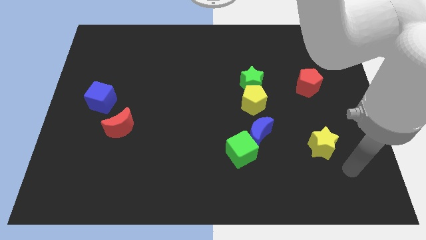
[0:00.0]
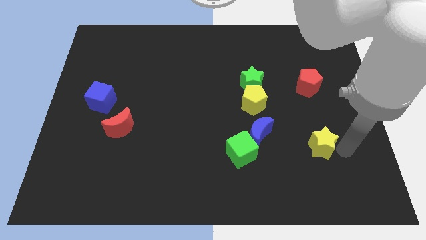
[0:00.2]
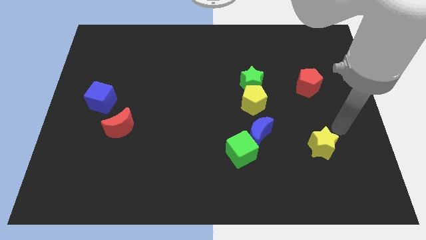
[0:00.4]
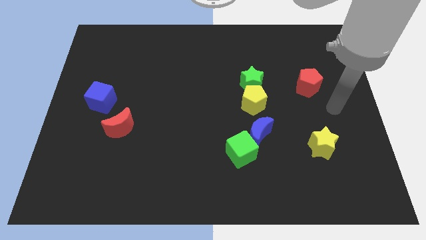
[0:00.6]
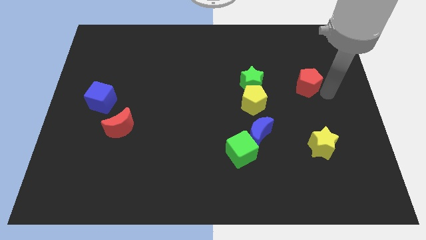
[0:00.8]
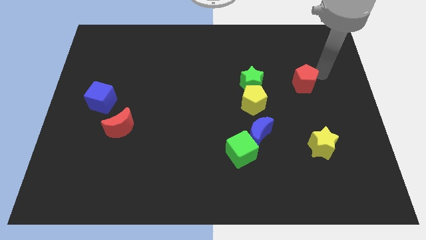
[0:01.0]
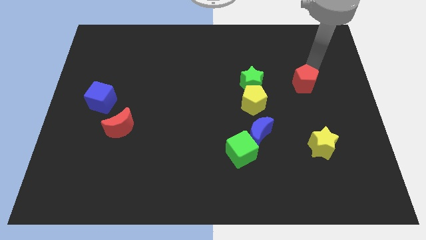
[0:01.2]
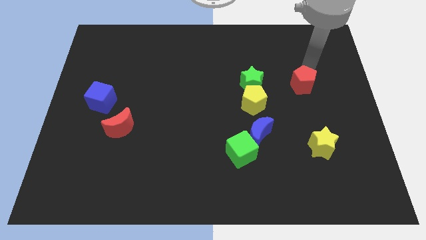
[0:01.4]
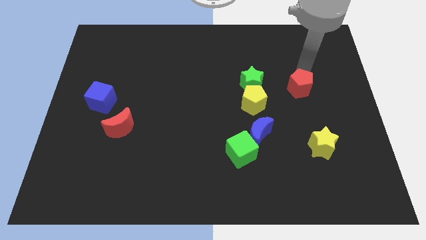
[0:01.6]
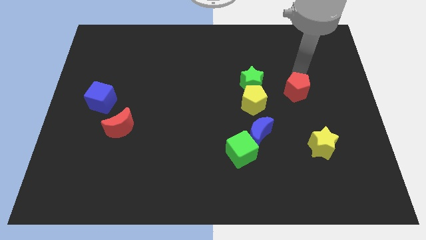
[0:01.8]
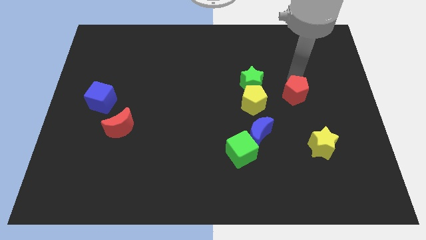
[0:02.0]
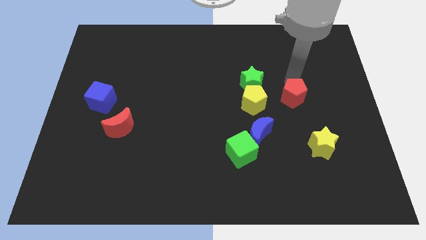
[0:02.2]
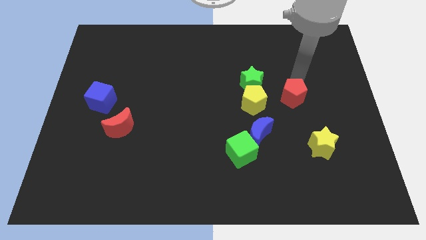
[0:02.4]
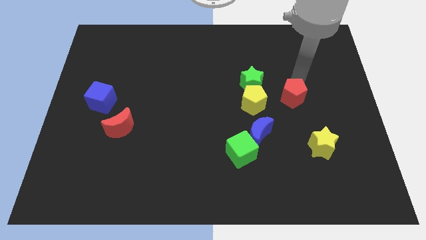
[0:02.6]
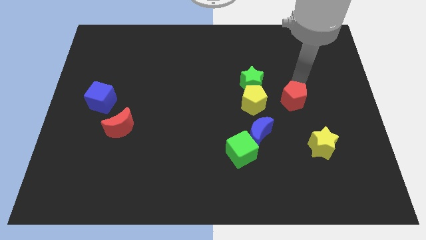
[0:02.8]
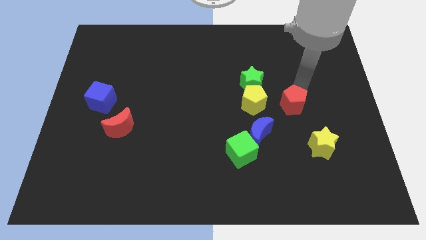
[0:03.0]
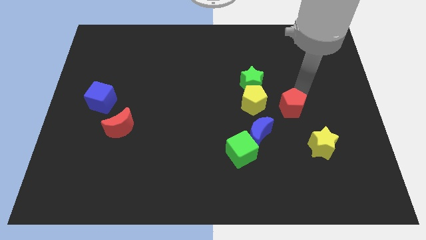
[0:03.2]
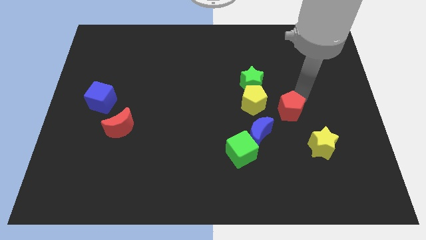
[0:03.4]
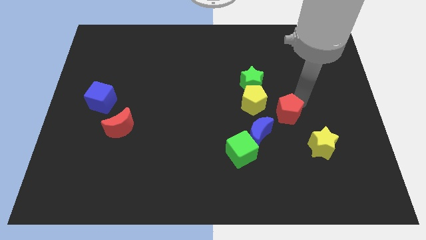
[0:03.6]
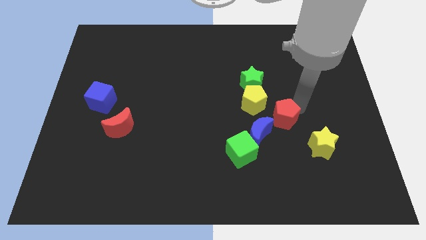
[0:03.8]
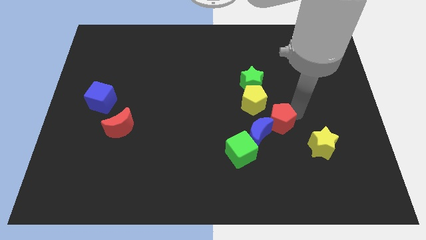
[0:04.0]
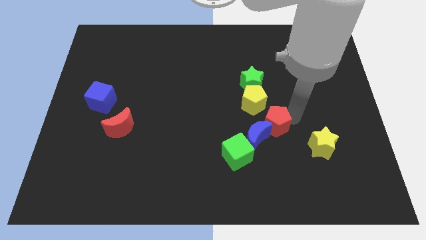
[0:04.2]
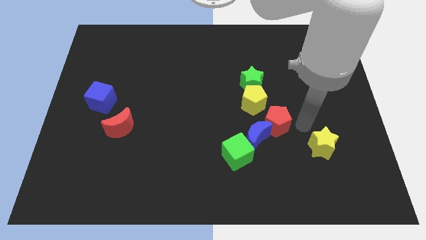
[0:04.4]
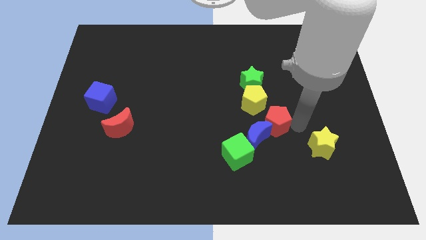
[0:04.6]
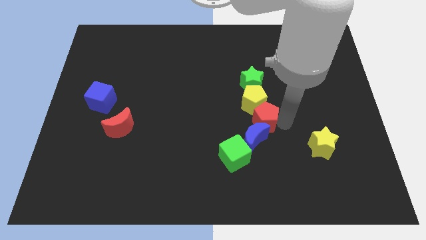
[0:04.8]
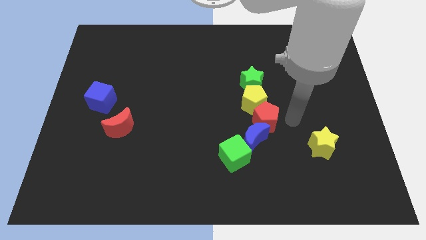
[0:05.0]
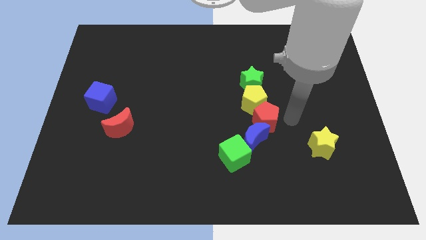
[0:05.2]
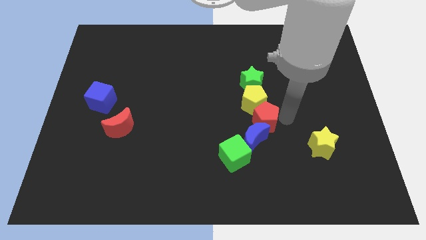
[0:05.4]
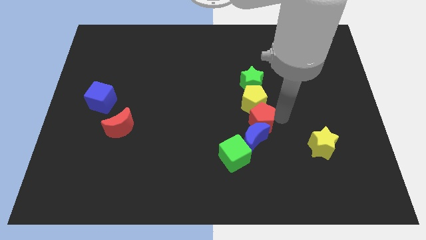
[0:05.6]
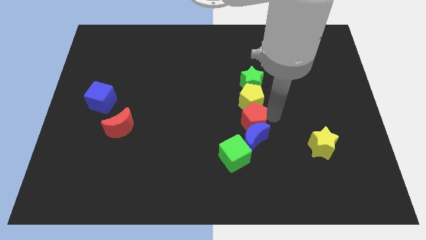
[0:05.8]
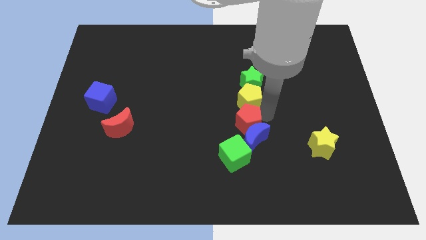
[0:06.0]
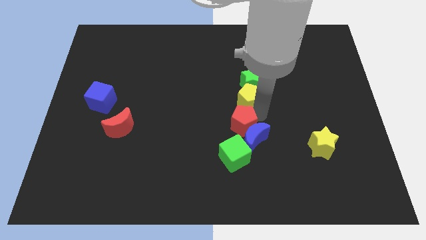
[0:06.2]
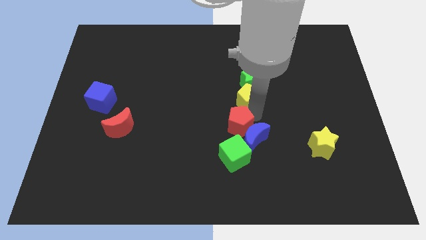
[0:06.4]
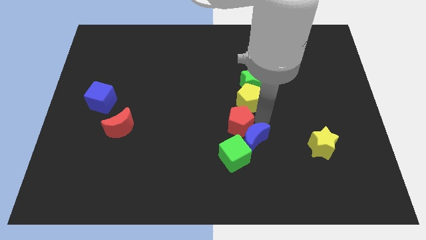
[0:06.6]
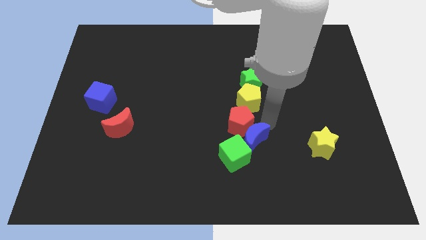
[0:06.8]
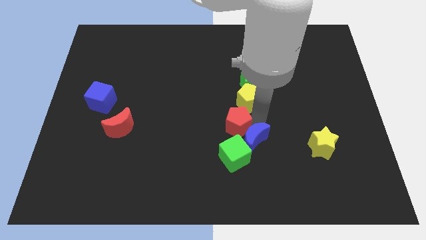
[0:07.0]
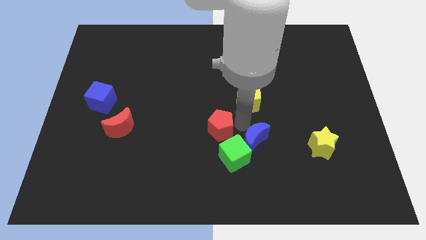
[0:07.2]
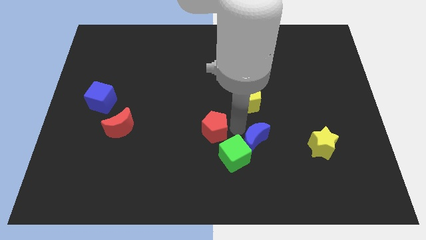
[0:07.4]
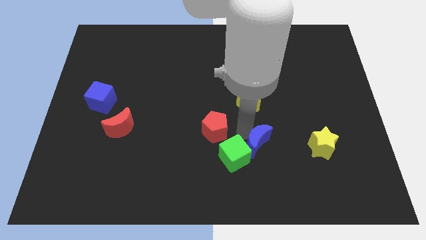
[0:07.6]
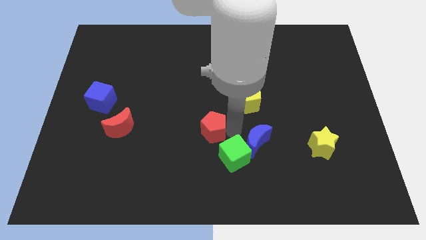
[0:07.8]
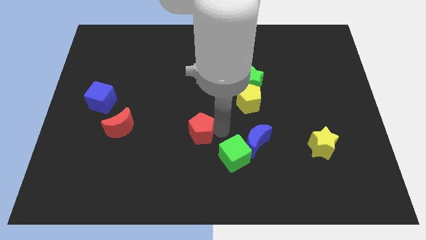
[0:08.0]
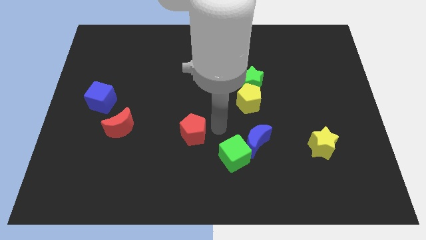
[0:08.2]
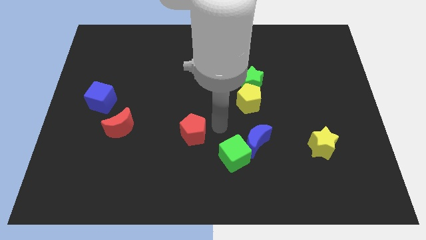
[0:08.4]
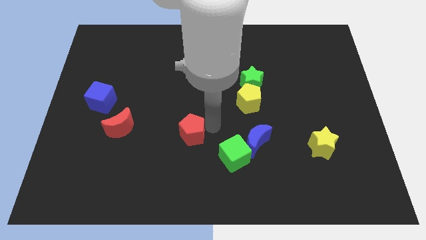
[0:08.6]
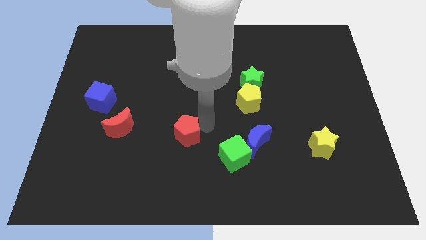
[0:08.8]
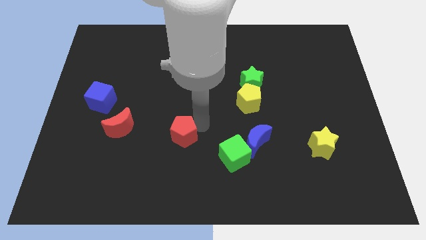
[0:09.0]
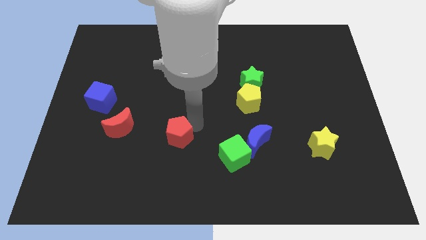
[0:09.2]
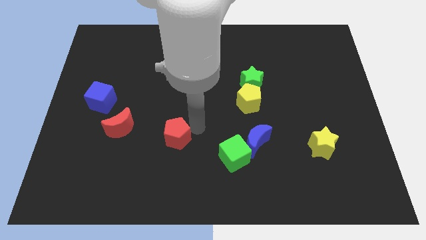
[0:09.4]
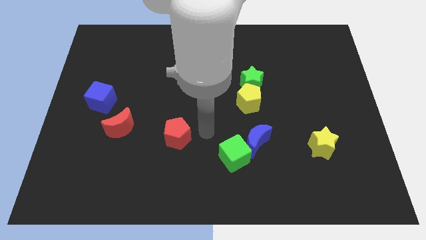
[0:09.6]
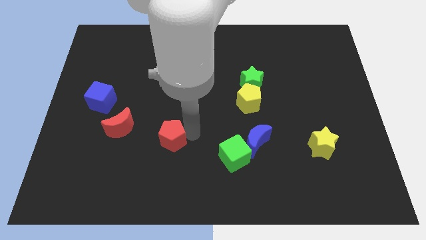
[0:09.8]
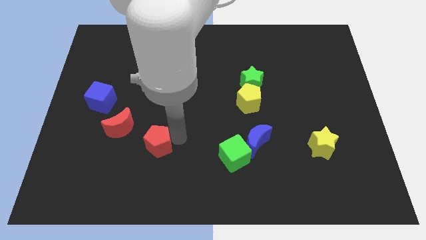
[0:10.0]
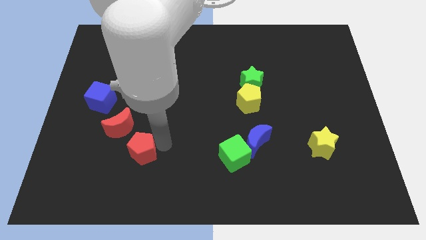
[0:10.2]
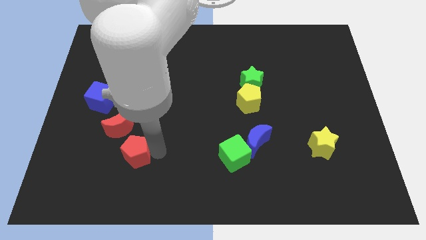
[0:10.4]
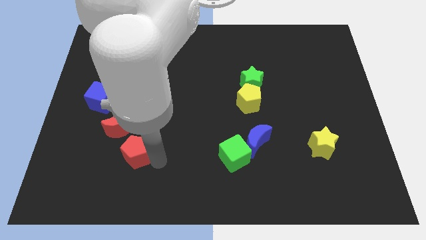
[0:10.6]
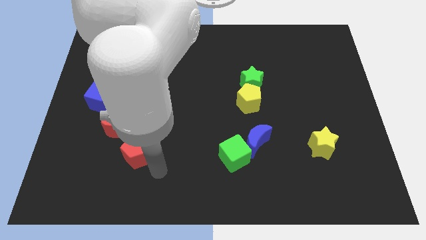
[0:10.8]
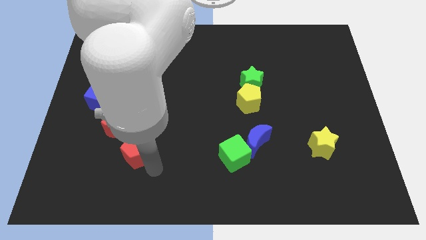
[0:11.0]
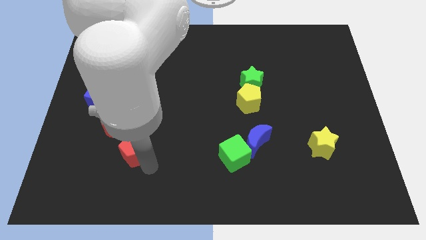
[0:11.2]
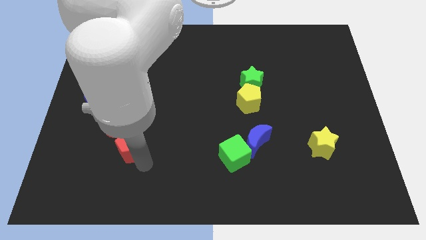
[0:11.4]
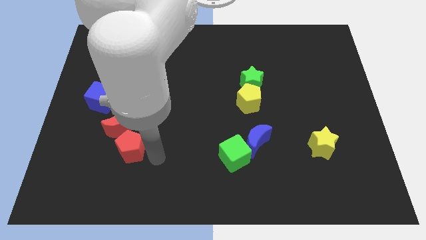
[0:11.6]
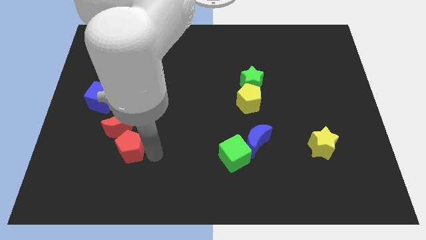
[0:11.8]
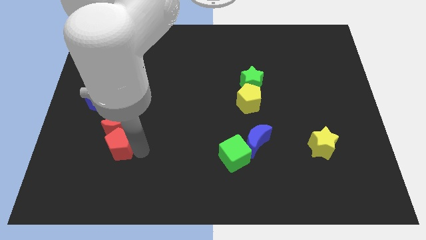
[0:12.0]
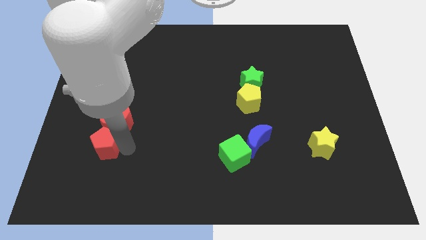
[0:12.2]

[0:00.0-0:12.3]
slide the red pentagon below the blue cube
